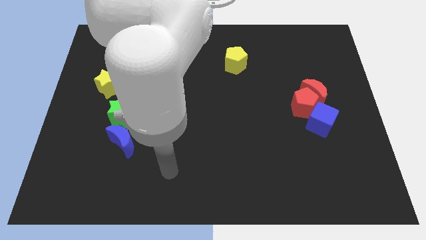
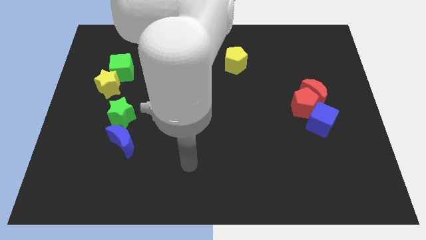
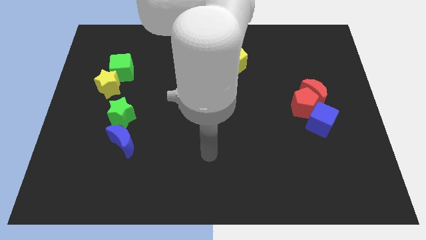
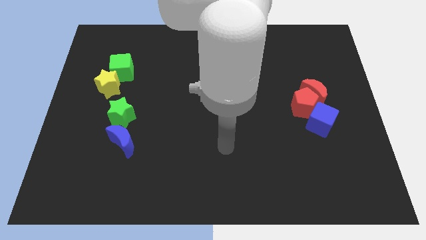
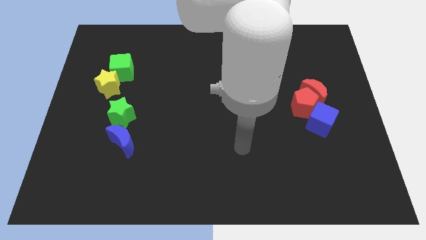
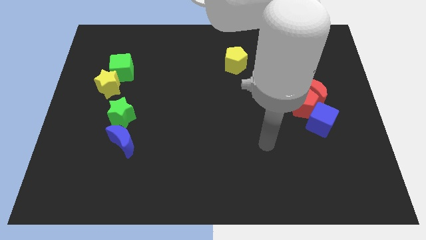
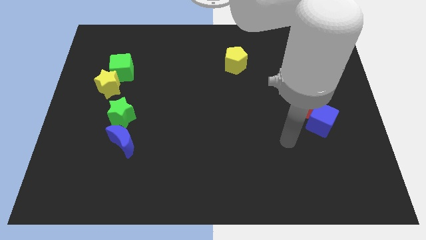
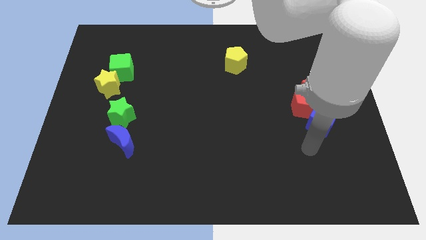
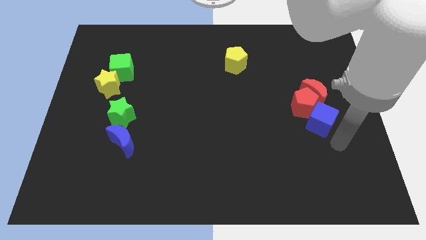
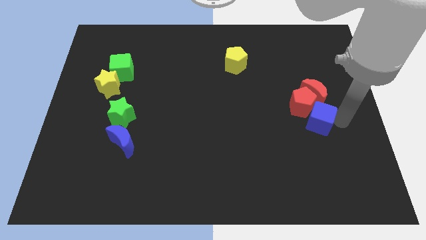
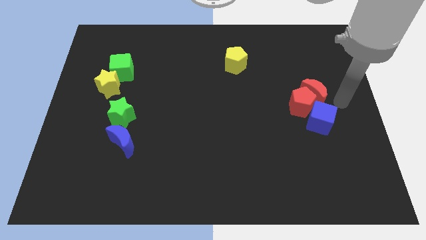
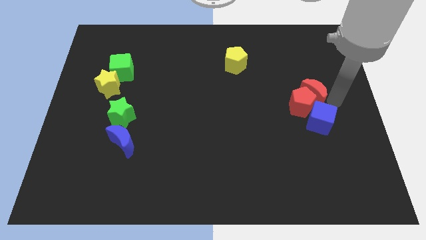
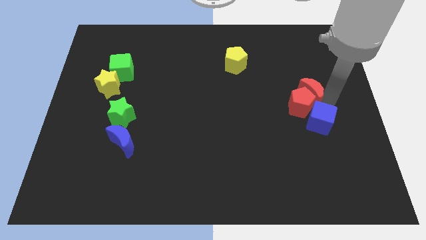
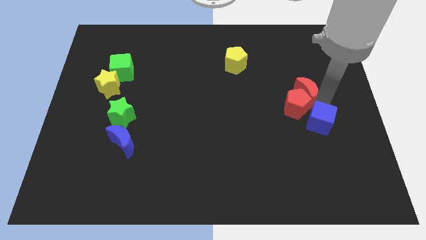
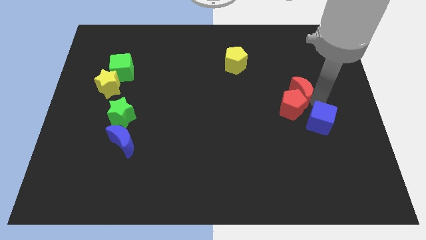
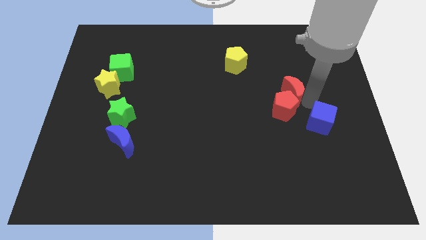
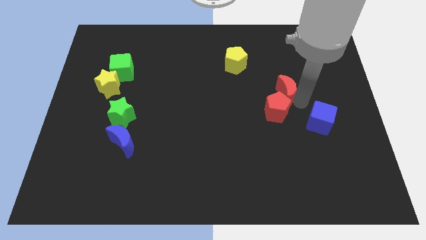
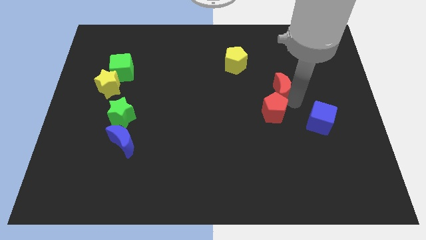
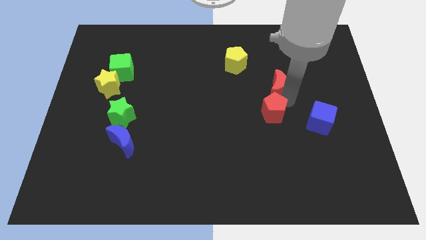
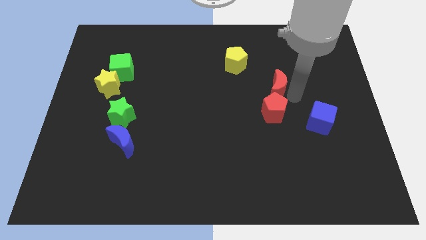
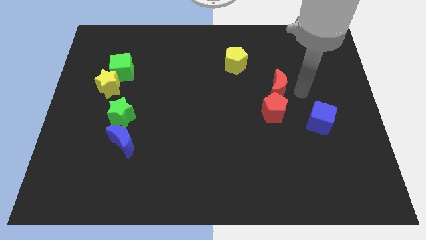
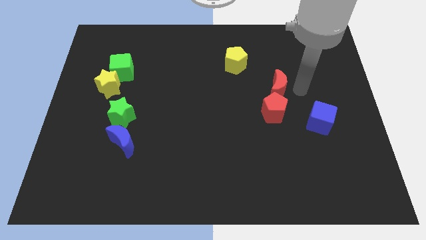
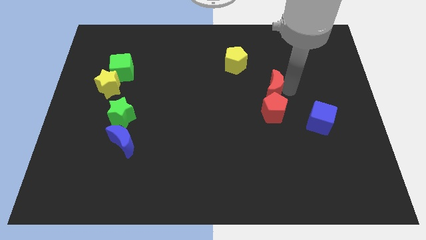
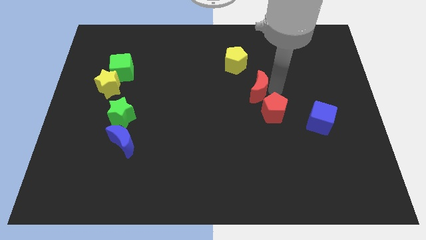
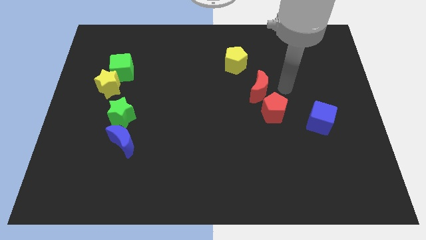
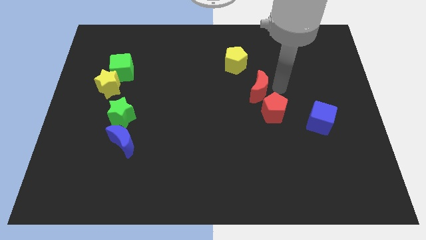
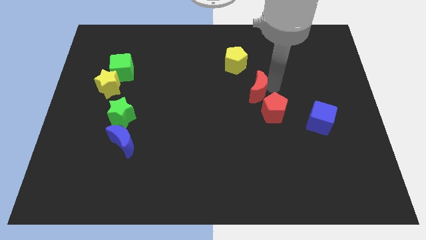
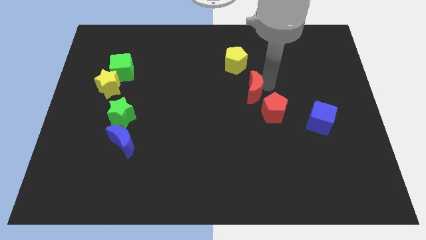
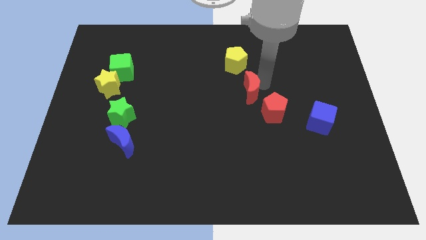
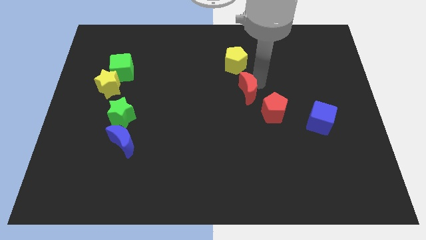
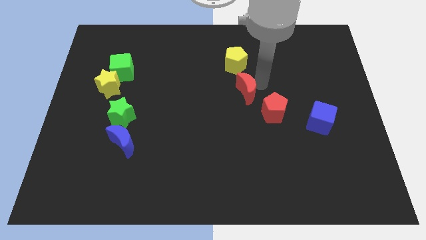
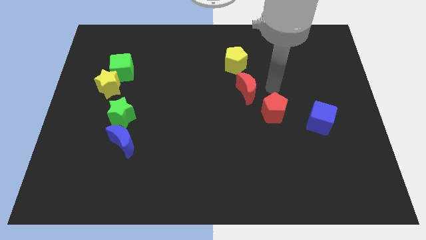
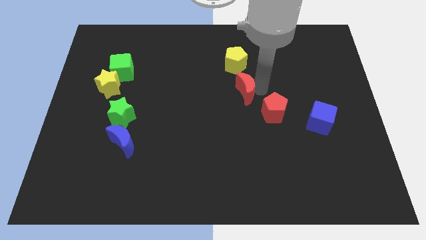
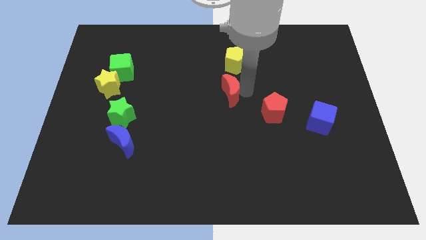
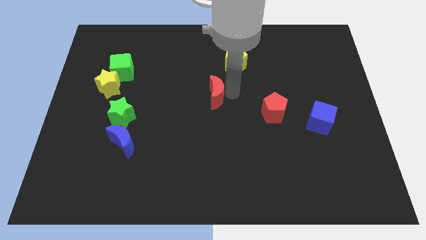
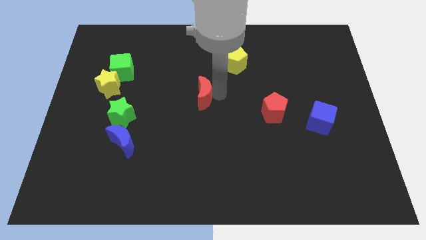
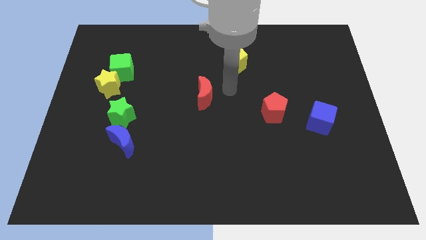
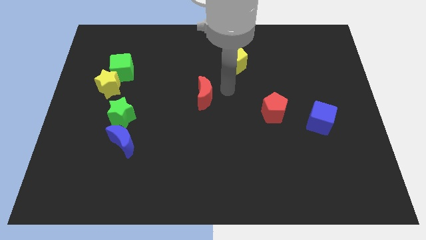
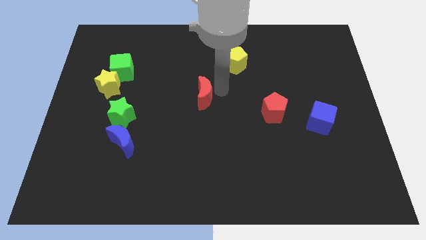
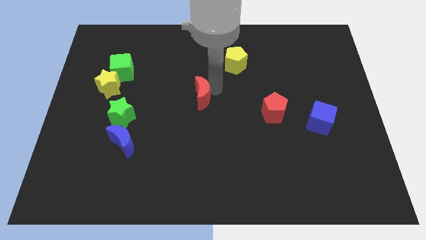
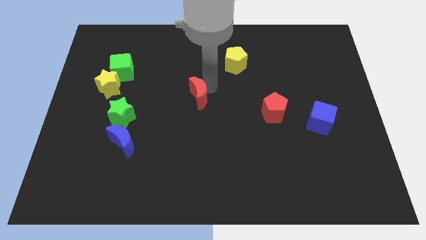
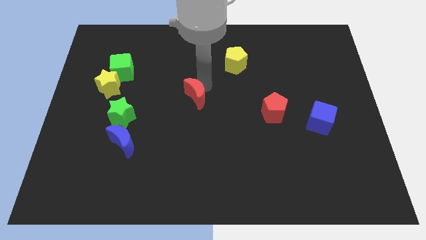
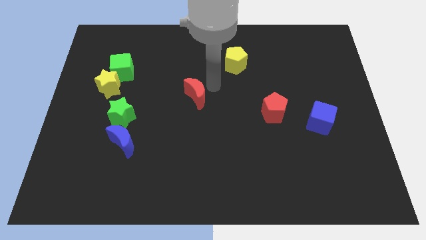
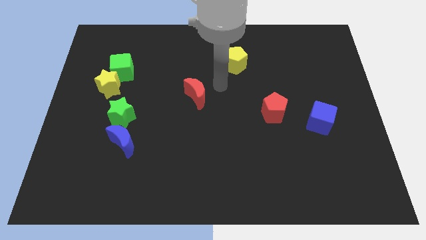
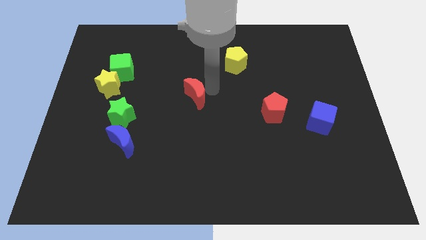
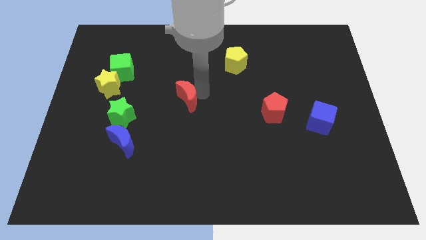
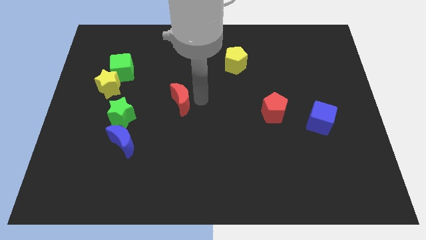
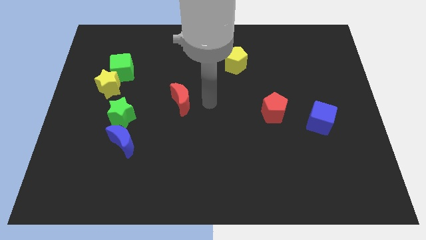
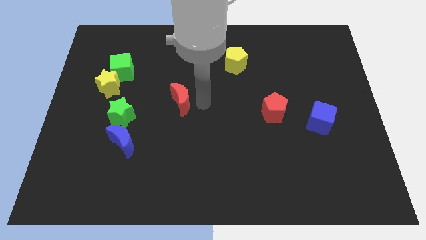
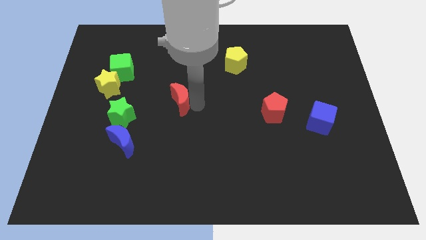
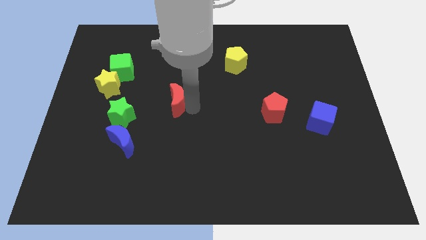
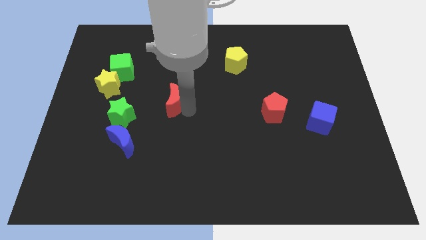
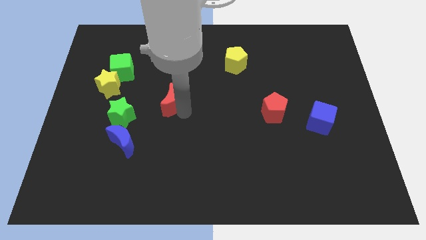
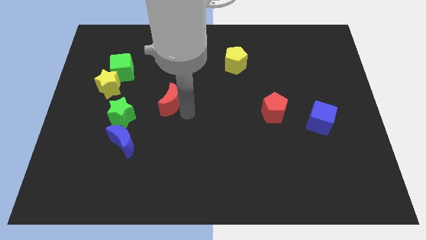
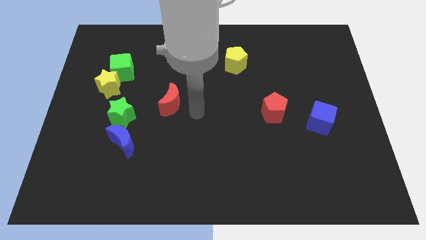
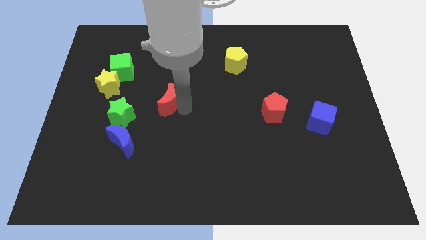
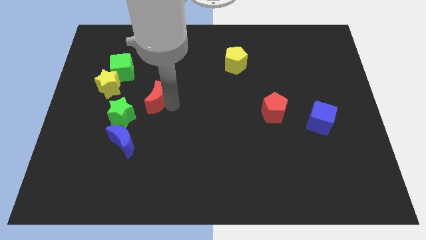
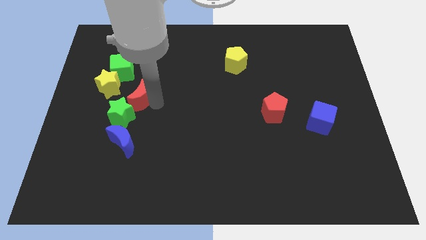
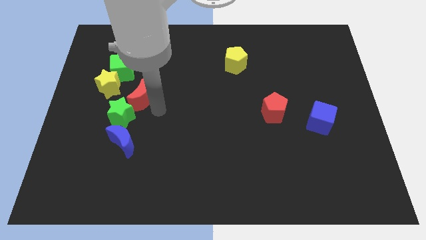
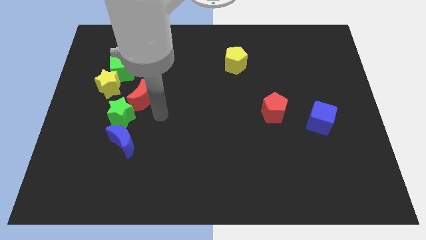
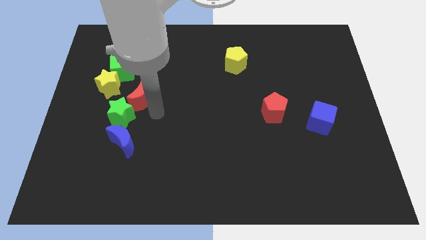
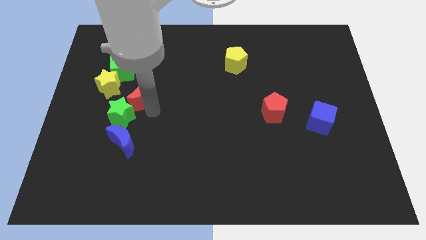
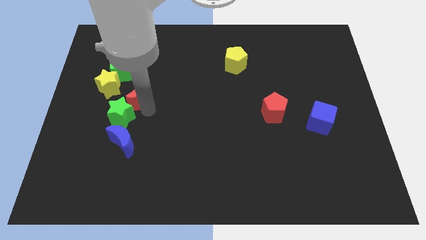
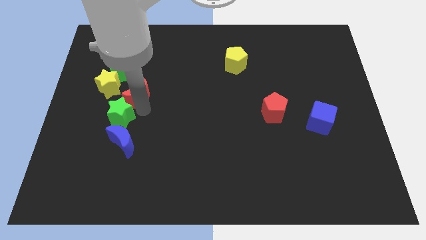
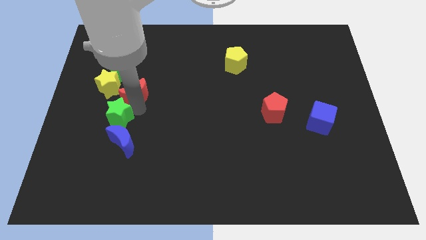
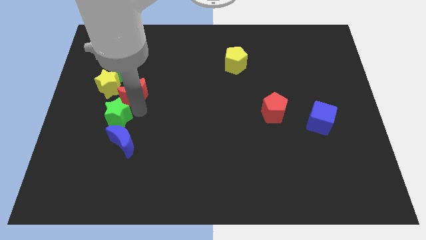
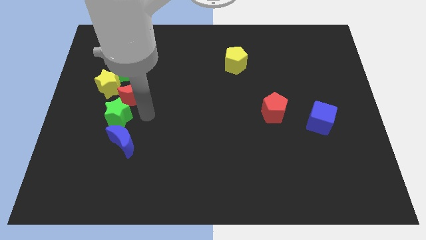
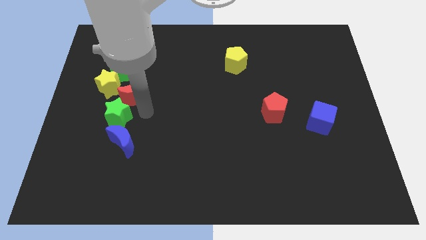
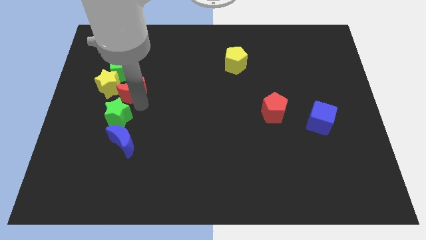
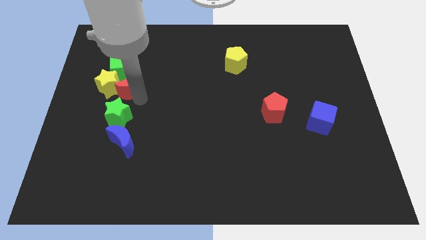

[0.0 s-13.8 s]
slide the red moon close to the yellow star

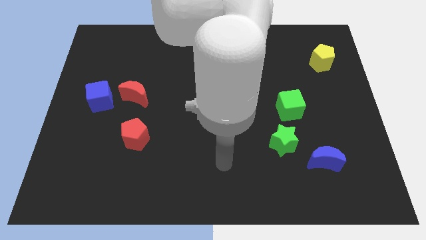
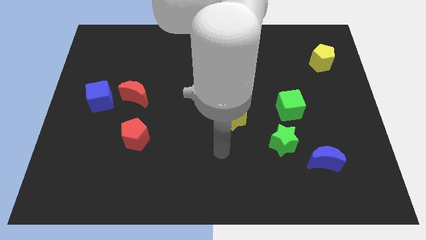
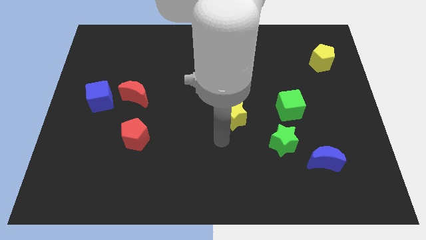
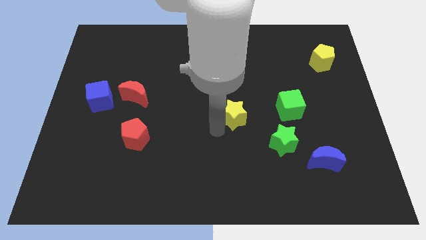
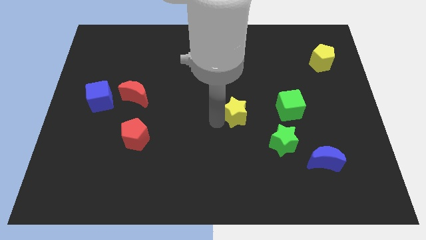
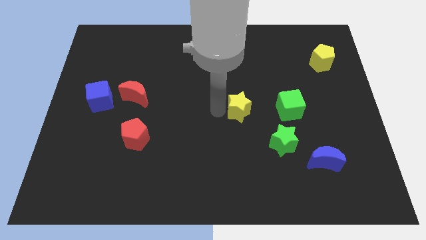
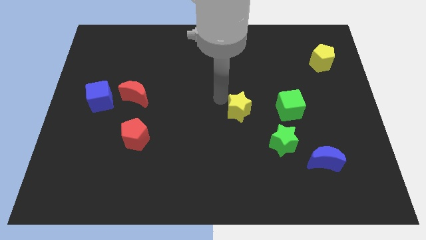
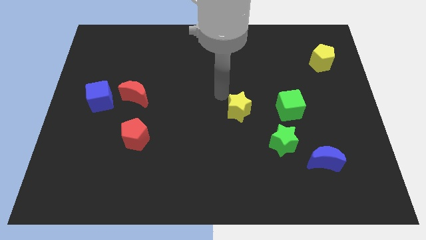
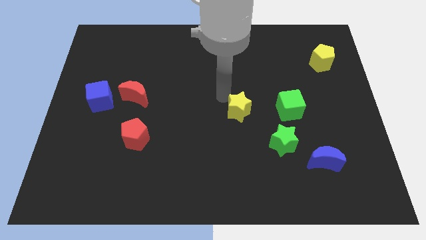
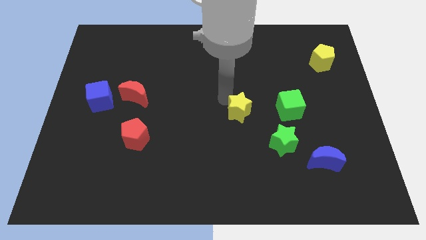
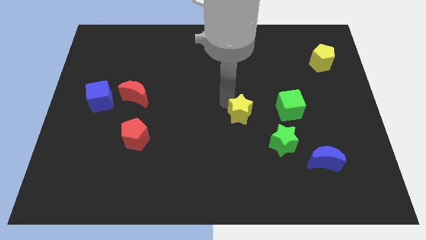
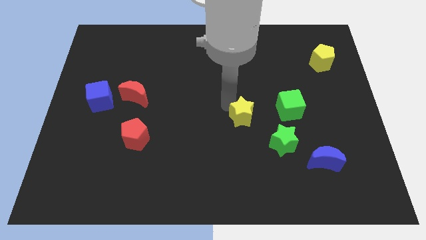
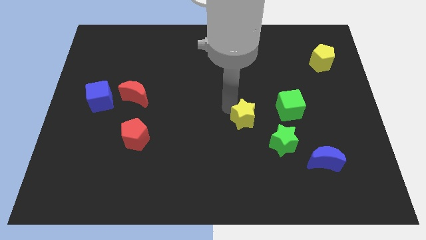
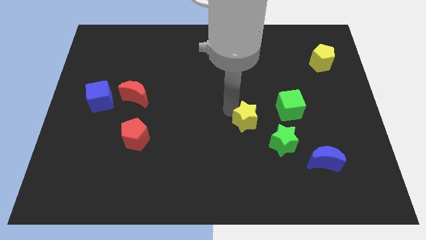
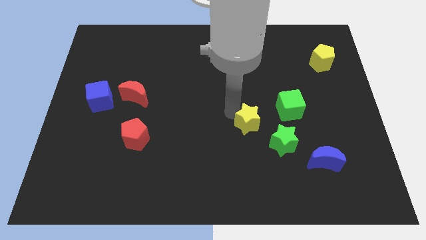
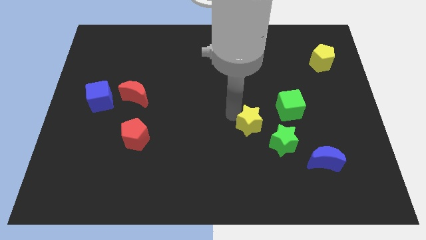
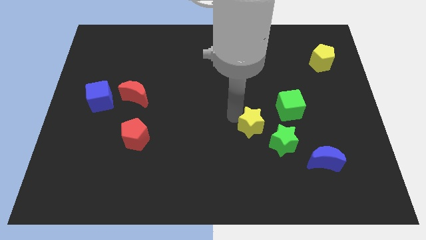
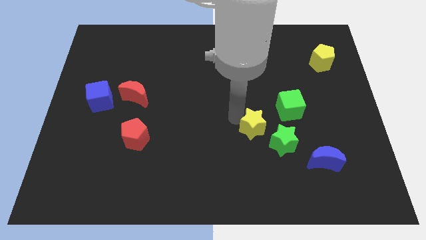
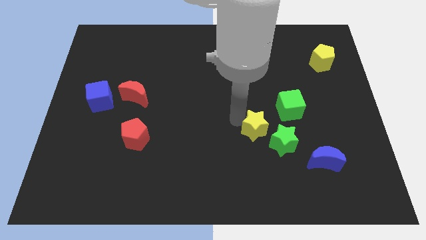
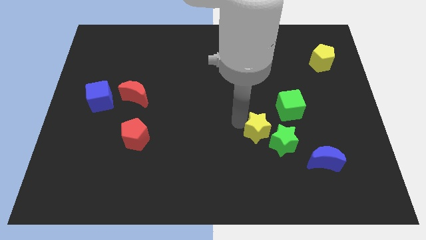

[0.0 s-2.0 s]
put the yellow star next to the green star
